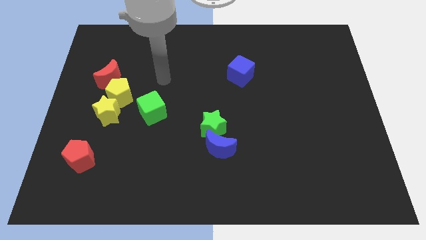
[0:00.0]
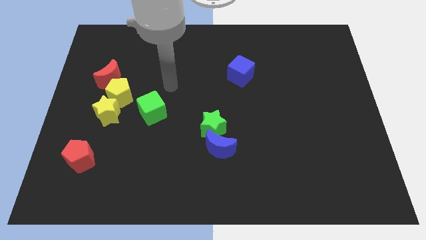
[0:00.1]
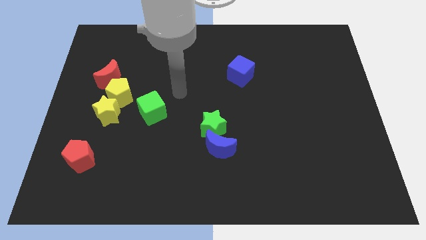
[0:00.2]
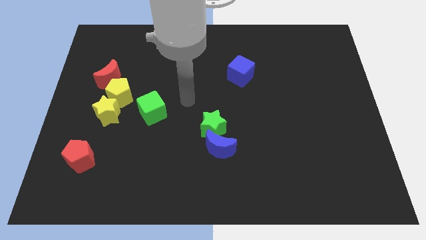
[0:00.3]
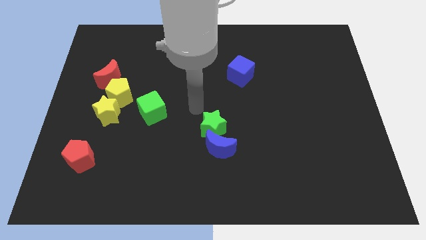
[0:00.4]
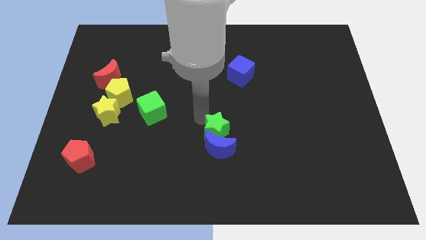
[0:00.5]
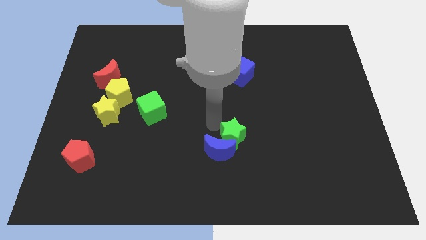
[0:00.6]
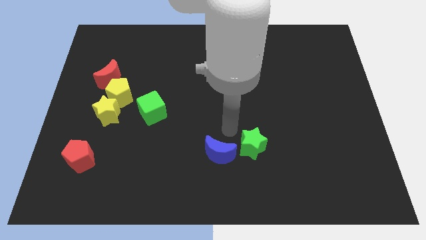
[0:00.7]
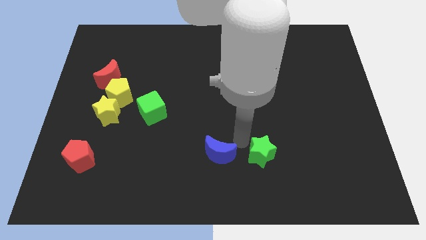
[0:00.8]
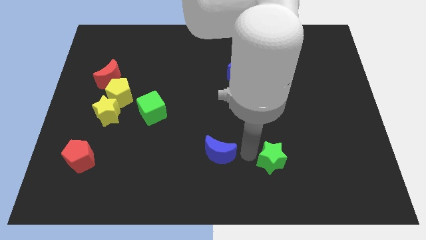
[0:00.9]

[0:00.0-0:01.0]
separate the blue moon from the green star

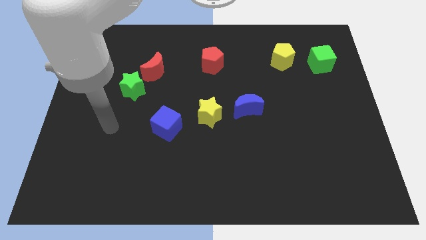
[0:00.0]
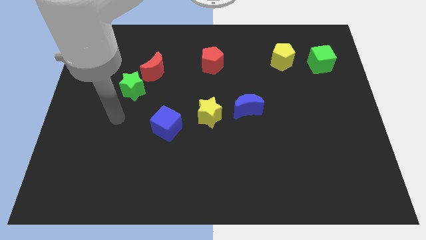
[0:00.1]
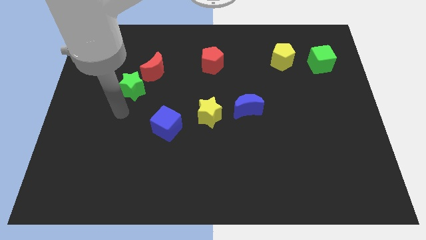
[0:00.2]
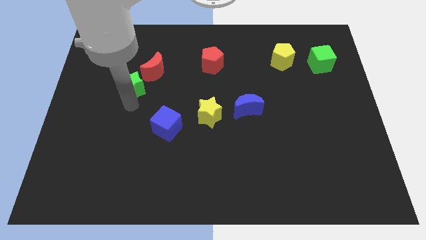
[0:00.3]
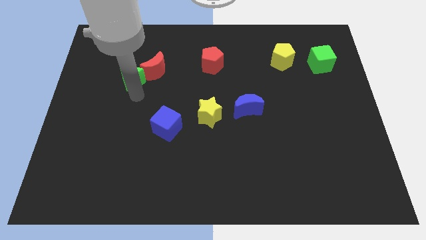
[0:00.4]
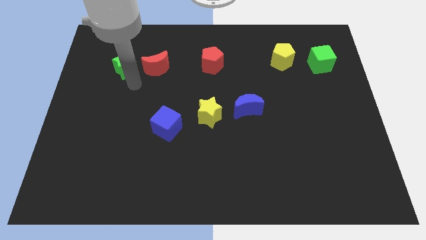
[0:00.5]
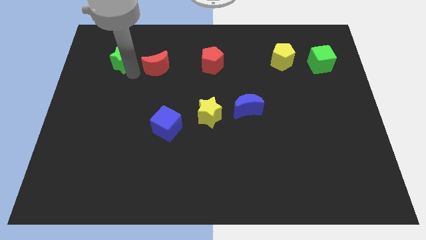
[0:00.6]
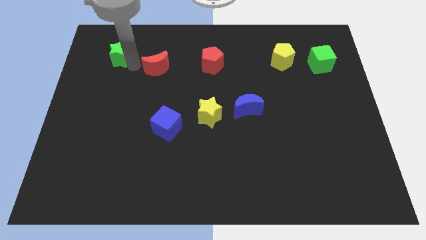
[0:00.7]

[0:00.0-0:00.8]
separate the red moon from the green star

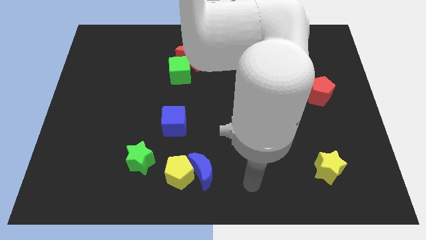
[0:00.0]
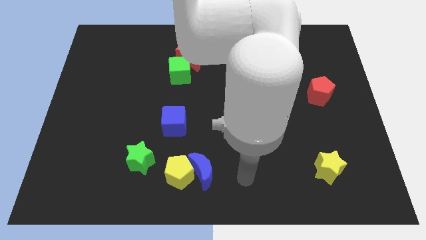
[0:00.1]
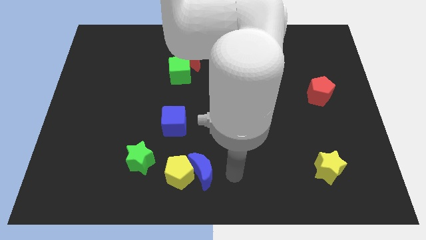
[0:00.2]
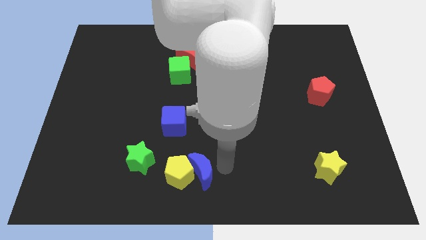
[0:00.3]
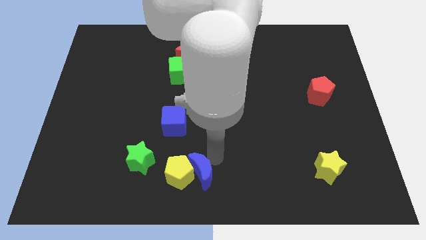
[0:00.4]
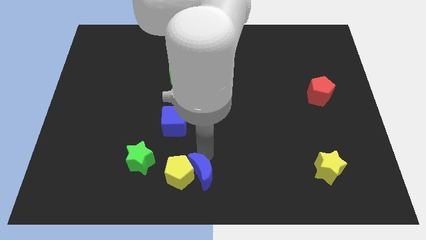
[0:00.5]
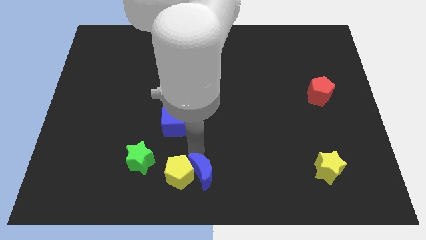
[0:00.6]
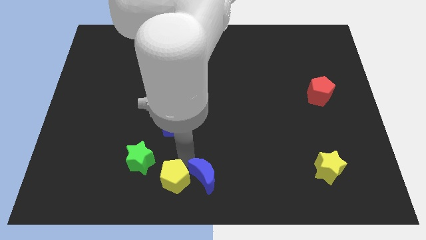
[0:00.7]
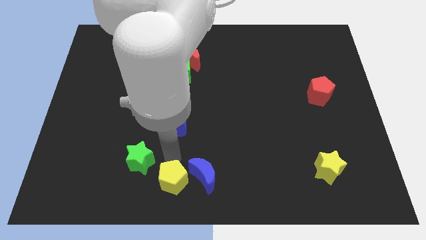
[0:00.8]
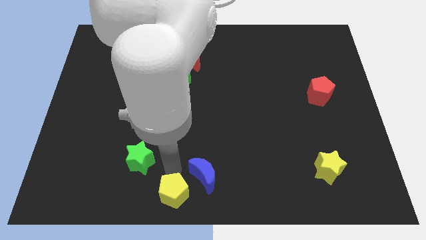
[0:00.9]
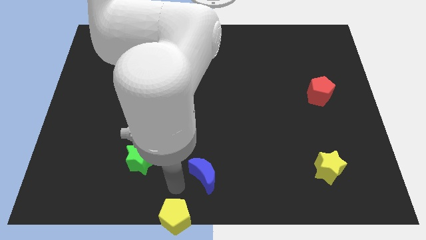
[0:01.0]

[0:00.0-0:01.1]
separate the blue moon from the yellow pentagon

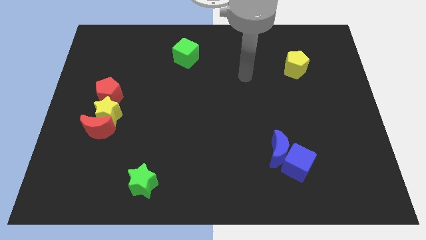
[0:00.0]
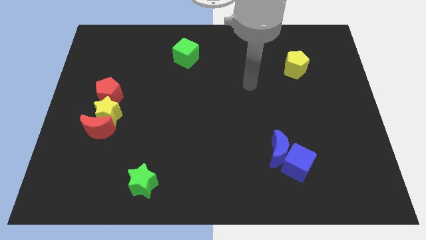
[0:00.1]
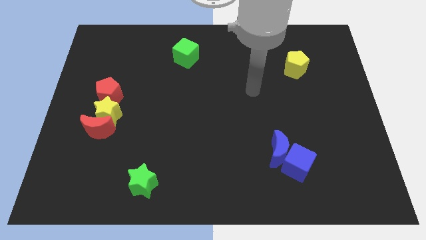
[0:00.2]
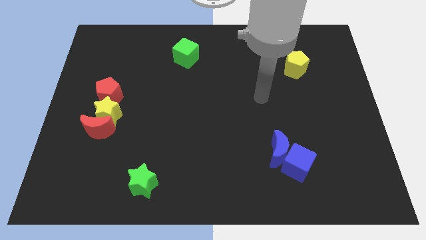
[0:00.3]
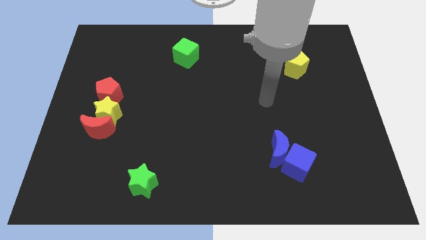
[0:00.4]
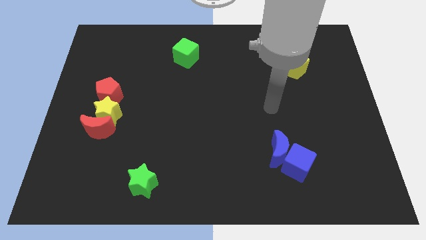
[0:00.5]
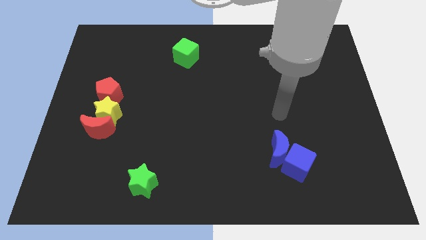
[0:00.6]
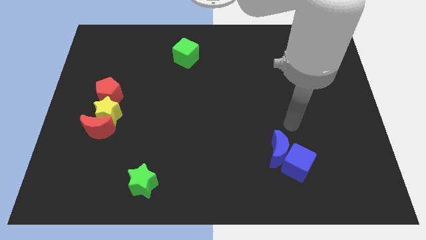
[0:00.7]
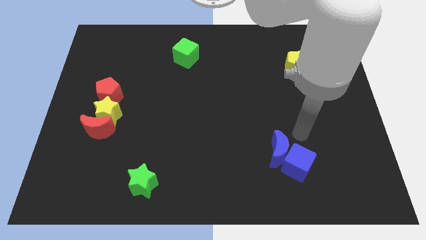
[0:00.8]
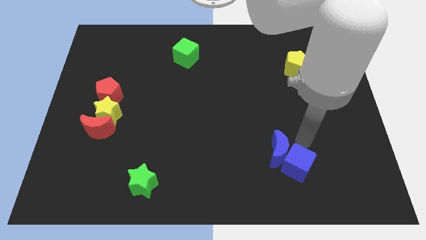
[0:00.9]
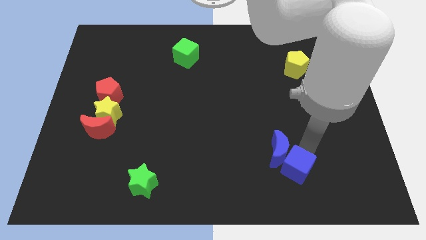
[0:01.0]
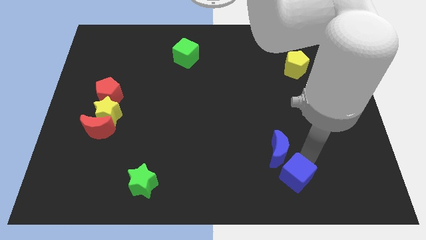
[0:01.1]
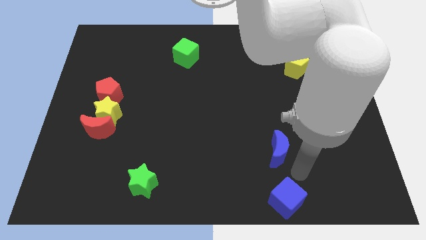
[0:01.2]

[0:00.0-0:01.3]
pull the blue moon apart from the blue cube

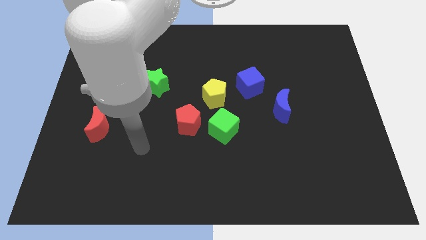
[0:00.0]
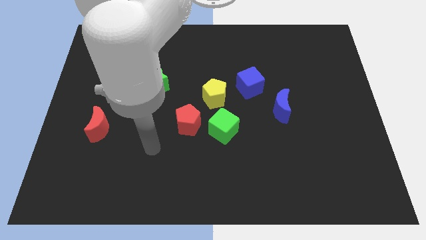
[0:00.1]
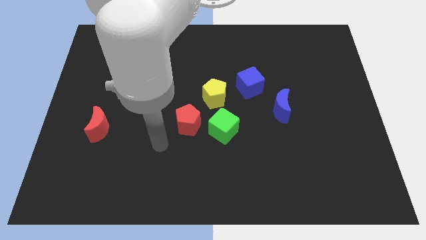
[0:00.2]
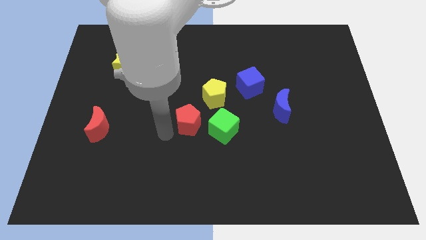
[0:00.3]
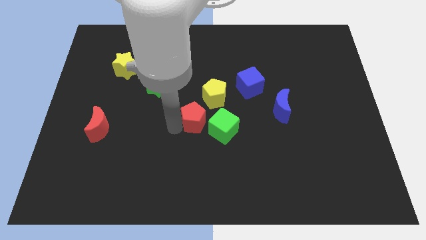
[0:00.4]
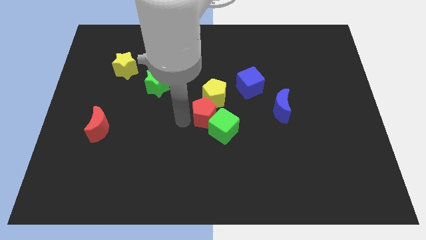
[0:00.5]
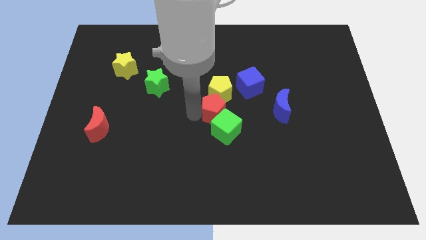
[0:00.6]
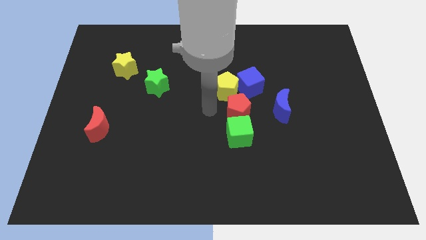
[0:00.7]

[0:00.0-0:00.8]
separate the green cube from the red pentagon and yellow pentagon

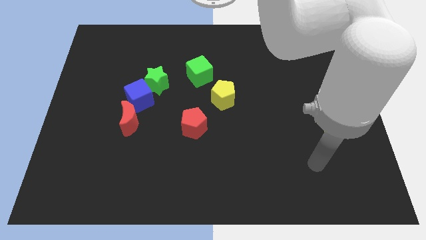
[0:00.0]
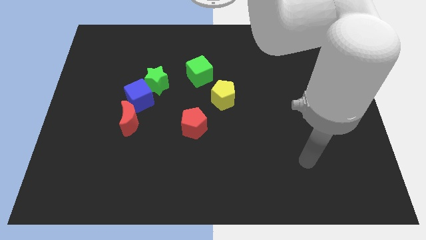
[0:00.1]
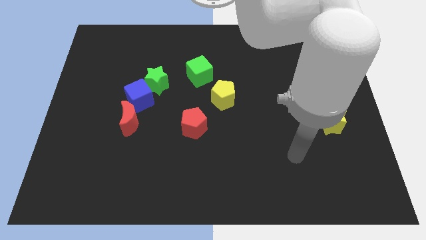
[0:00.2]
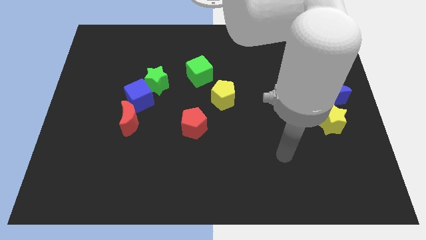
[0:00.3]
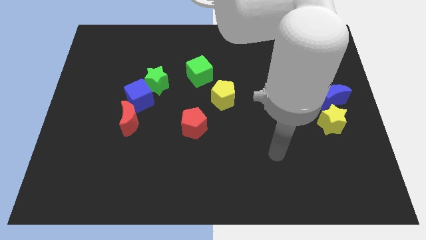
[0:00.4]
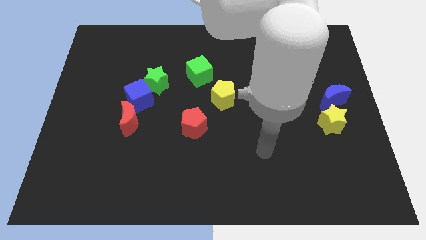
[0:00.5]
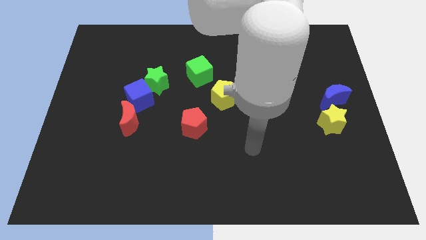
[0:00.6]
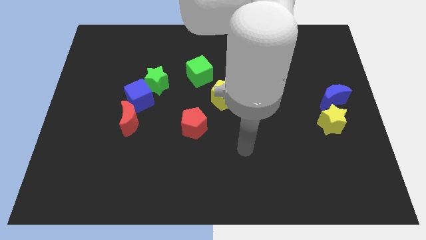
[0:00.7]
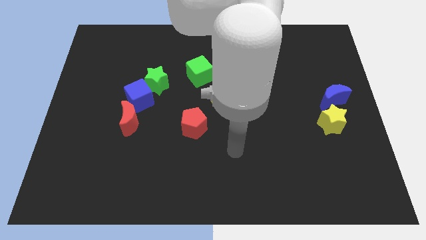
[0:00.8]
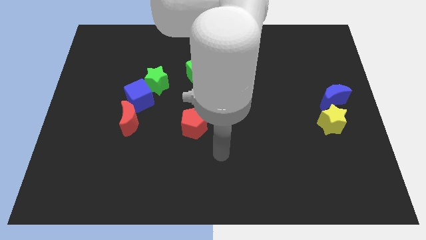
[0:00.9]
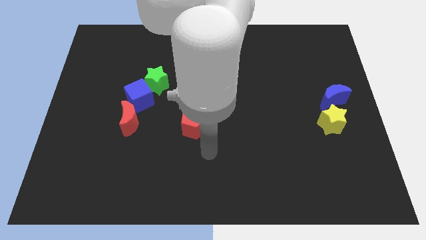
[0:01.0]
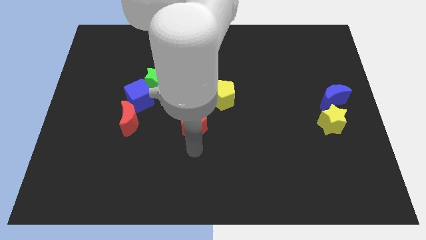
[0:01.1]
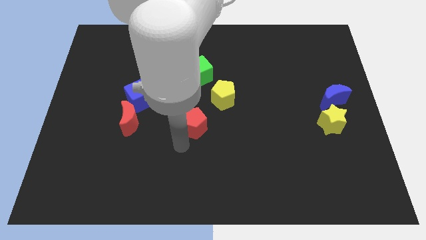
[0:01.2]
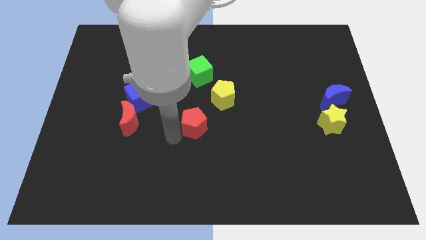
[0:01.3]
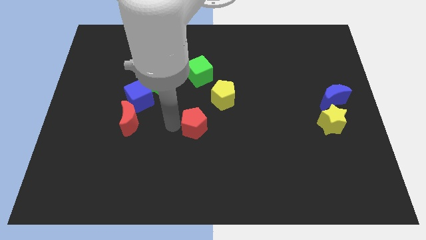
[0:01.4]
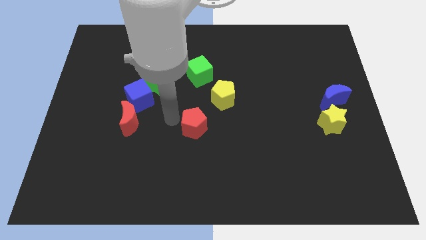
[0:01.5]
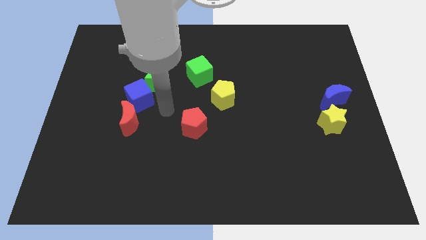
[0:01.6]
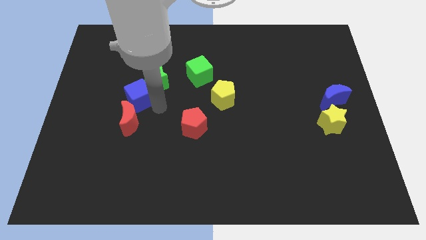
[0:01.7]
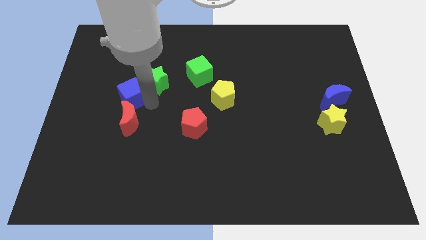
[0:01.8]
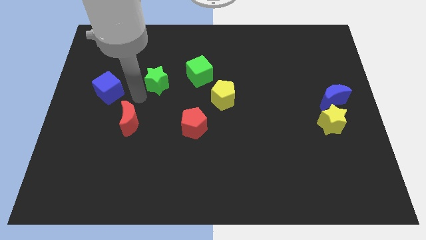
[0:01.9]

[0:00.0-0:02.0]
pull the green star apart from the blue cube

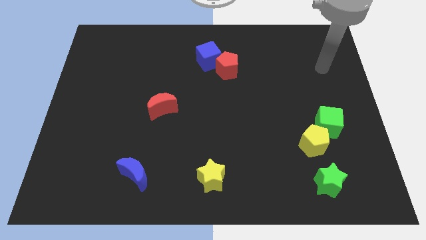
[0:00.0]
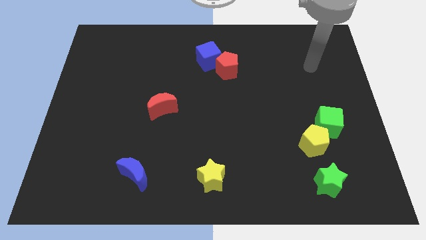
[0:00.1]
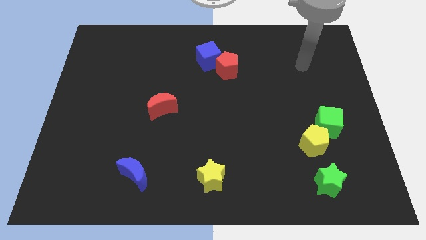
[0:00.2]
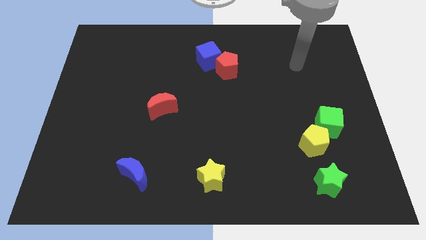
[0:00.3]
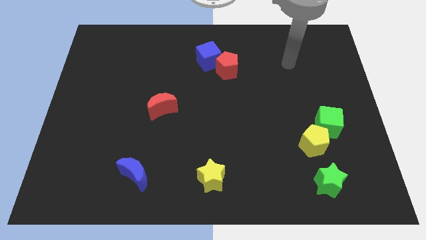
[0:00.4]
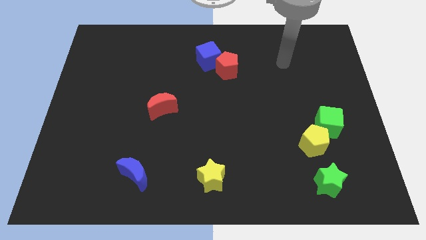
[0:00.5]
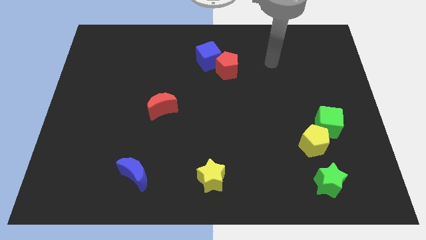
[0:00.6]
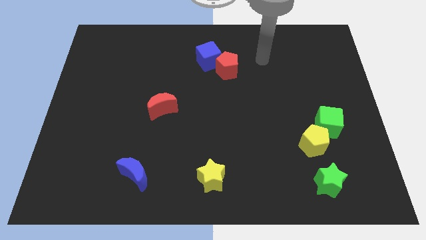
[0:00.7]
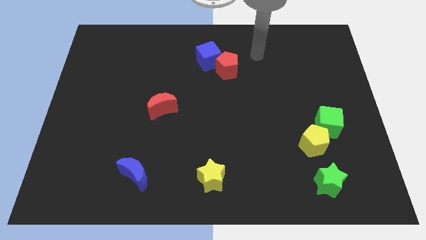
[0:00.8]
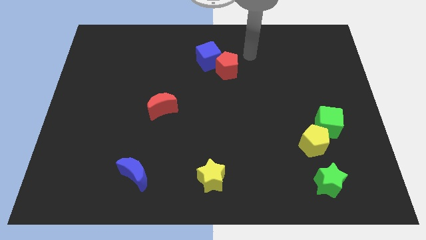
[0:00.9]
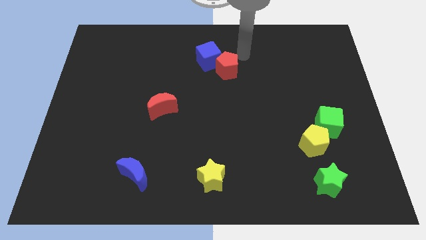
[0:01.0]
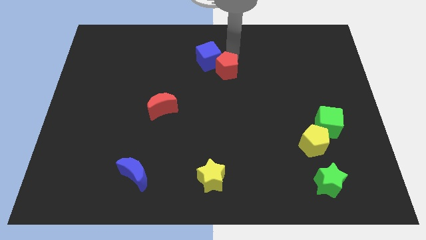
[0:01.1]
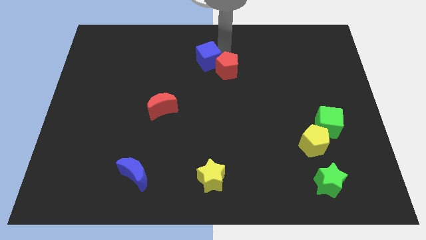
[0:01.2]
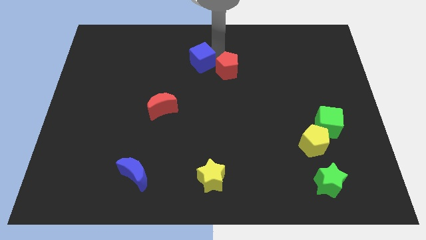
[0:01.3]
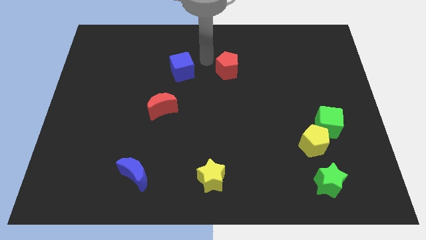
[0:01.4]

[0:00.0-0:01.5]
move the red pentagon away from the blue cube

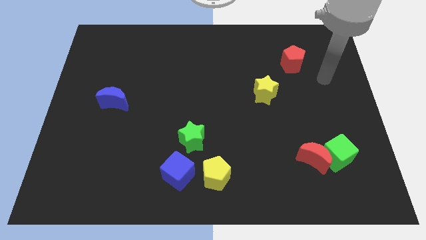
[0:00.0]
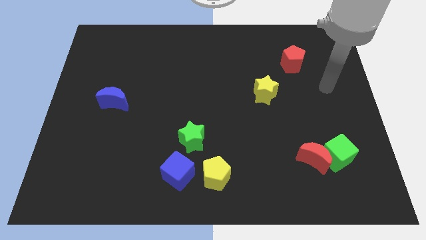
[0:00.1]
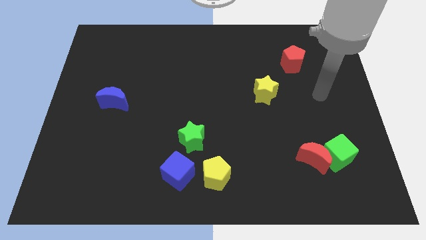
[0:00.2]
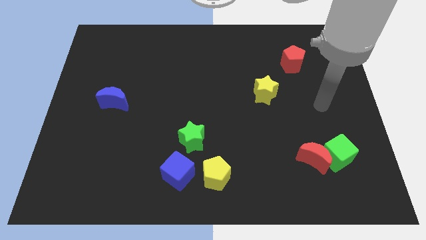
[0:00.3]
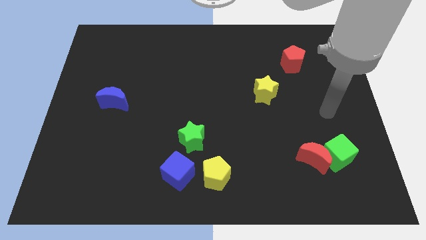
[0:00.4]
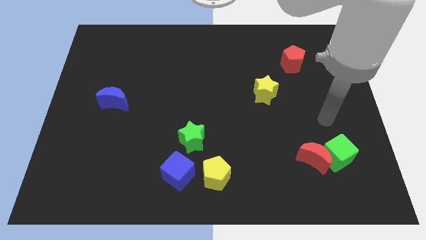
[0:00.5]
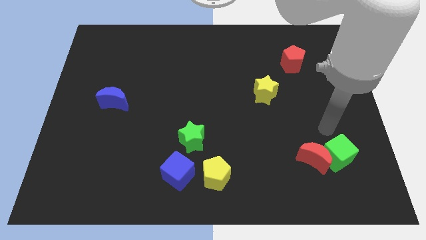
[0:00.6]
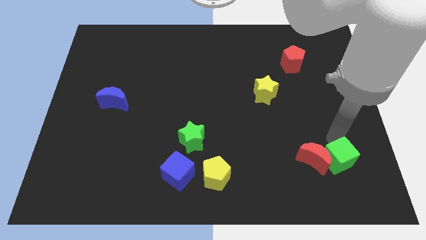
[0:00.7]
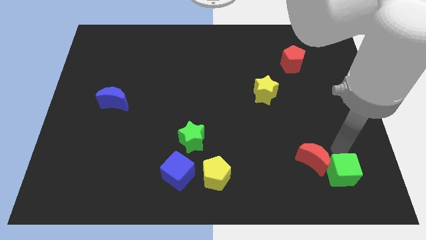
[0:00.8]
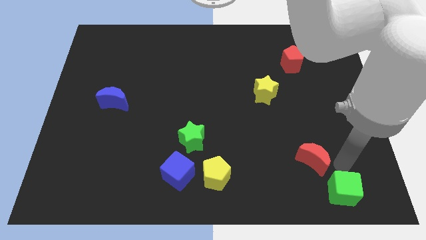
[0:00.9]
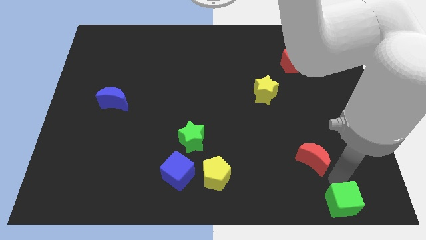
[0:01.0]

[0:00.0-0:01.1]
pull the red moon apart from the green cube
